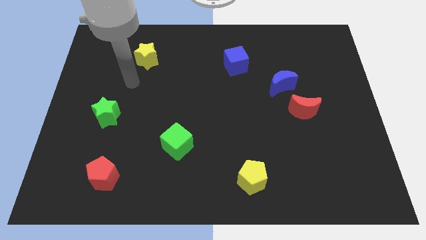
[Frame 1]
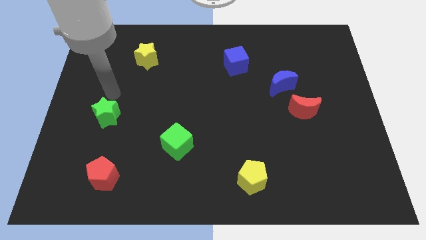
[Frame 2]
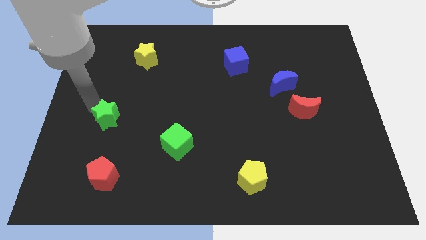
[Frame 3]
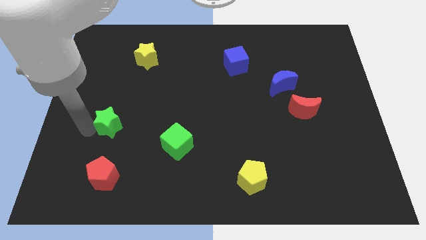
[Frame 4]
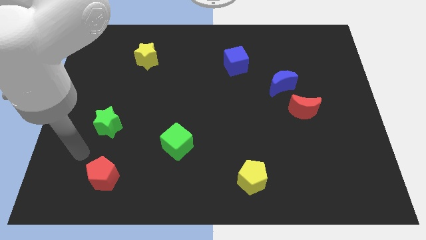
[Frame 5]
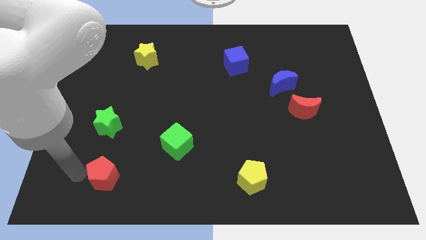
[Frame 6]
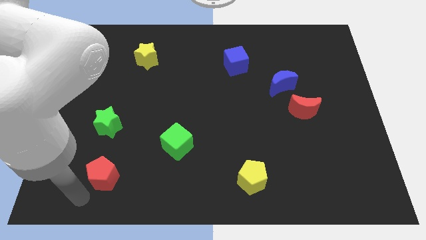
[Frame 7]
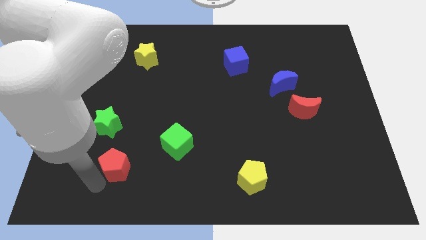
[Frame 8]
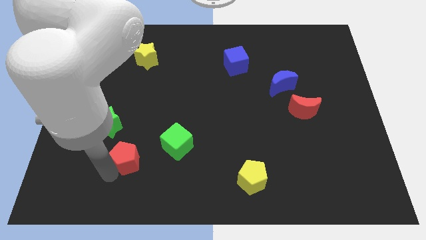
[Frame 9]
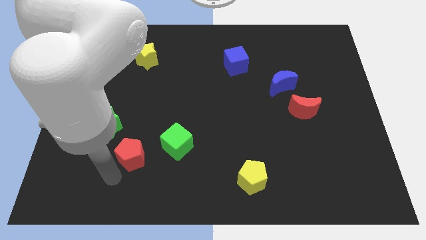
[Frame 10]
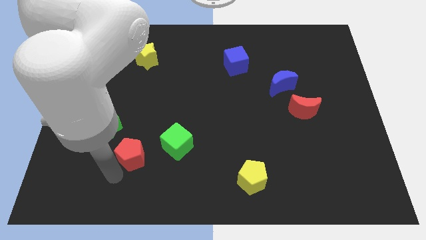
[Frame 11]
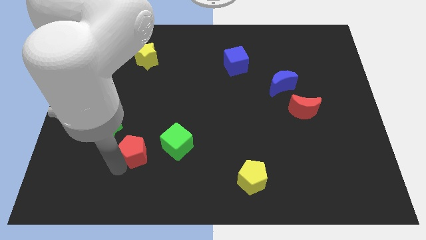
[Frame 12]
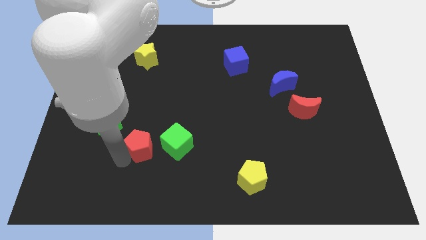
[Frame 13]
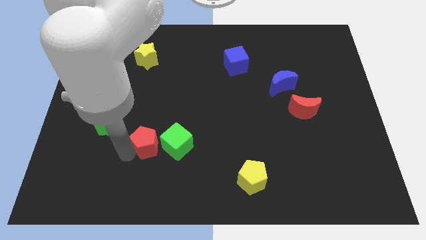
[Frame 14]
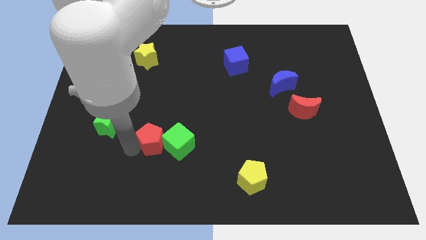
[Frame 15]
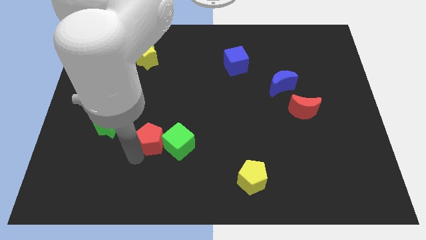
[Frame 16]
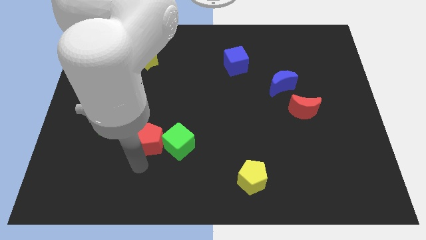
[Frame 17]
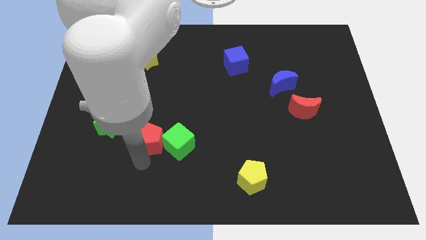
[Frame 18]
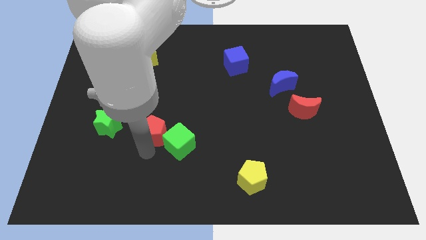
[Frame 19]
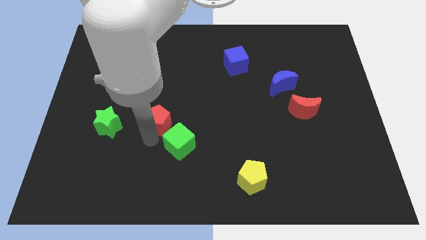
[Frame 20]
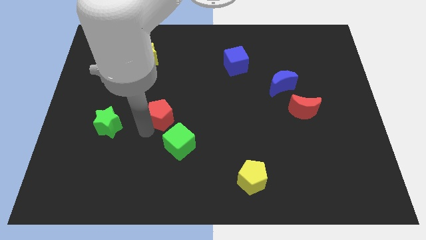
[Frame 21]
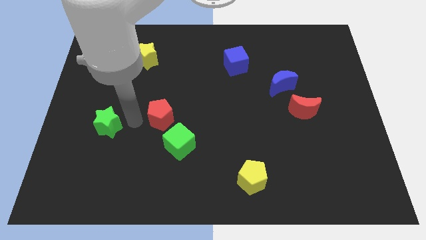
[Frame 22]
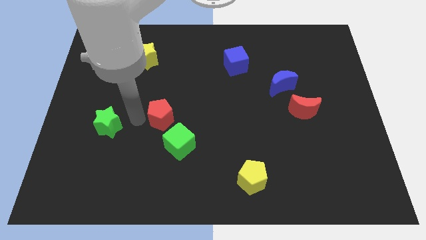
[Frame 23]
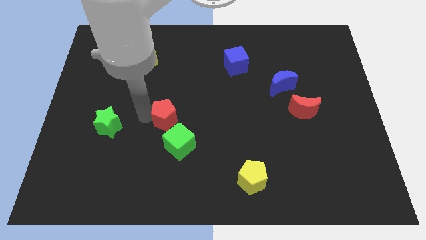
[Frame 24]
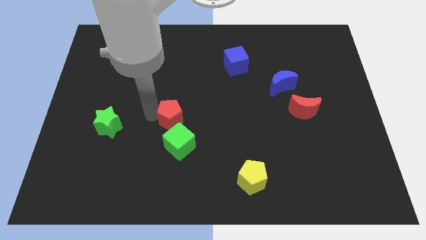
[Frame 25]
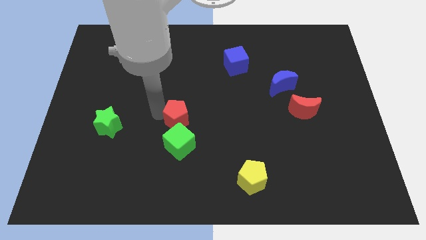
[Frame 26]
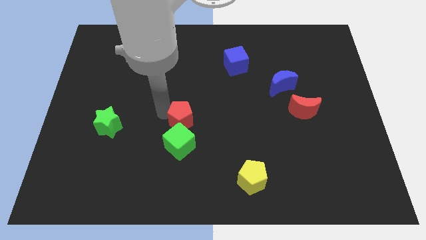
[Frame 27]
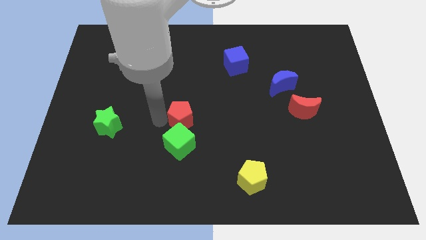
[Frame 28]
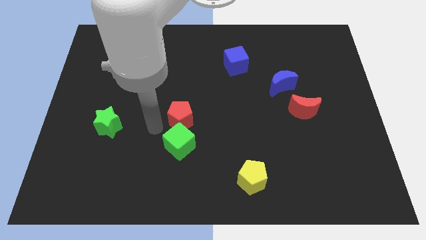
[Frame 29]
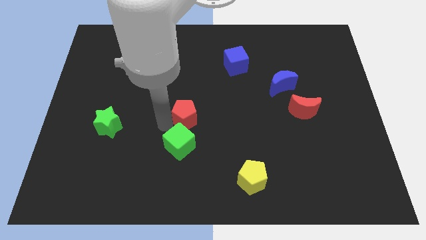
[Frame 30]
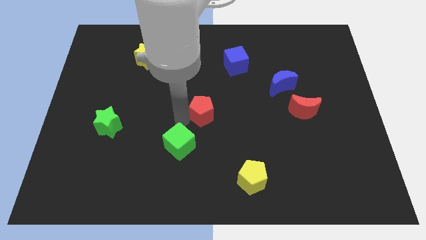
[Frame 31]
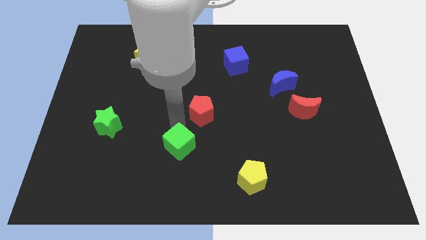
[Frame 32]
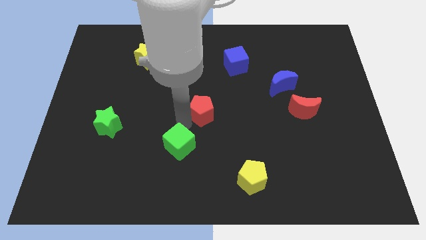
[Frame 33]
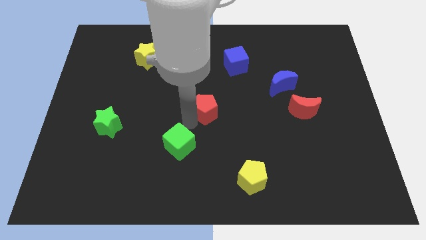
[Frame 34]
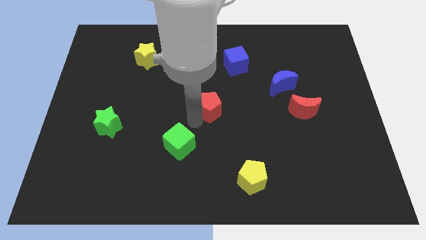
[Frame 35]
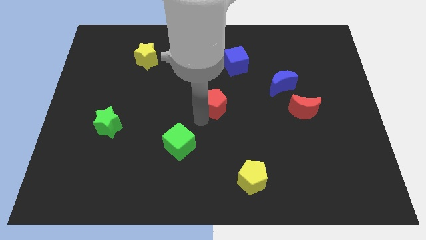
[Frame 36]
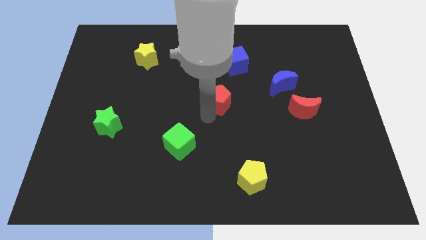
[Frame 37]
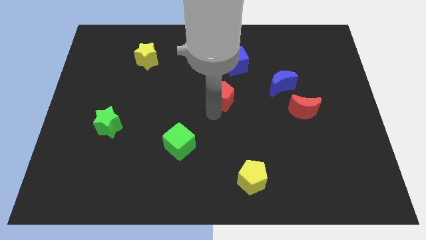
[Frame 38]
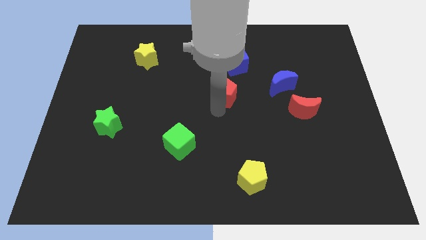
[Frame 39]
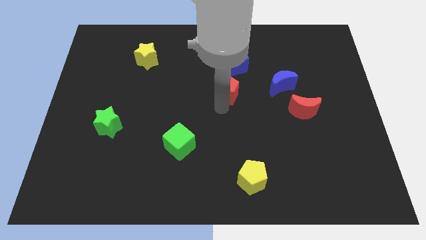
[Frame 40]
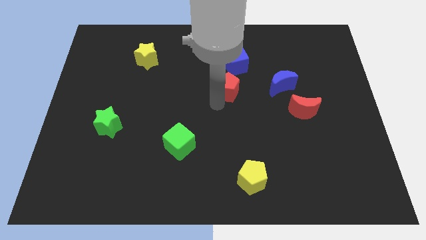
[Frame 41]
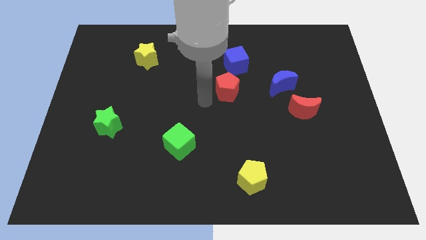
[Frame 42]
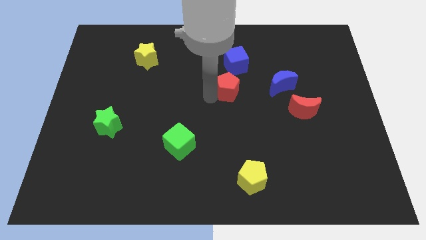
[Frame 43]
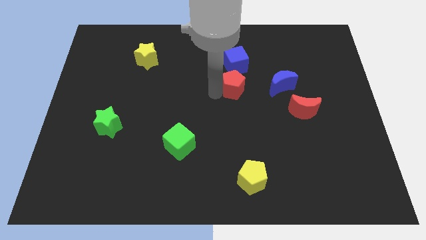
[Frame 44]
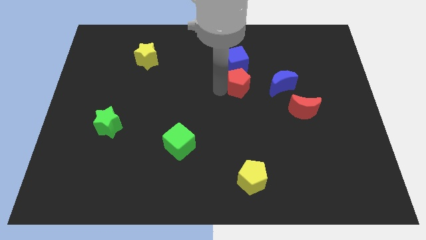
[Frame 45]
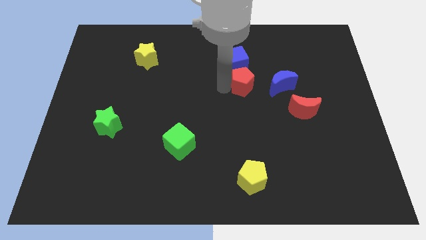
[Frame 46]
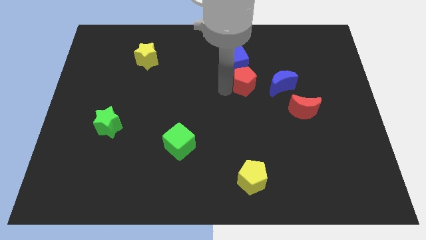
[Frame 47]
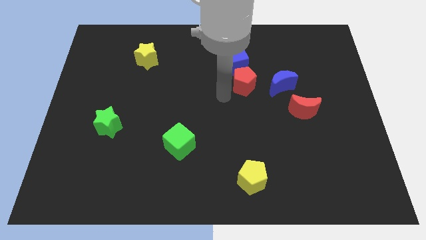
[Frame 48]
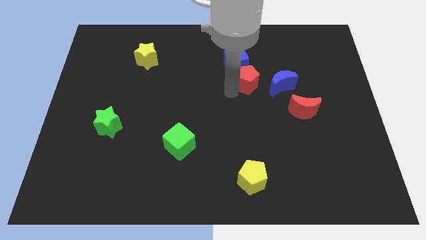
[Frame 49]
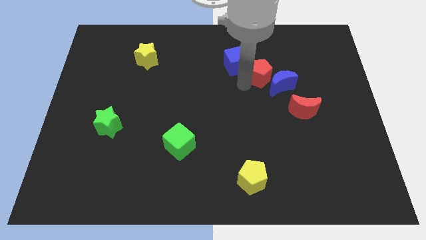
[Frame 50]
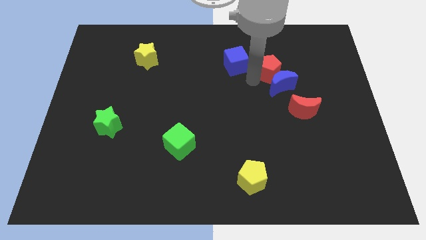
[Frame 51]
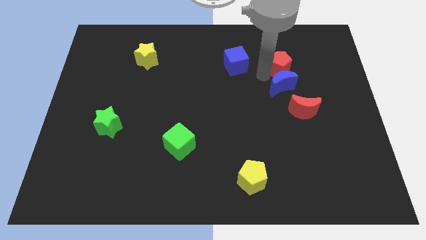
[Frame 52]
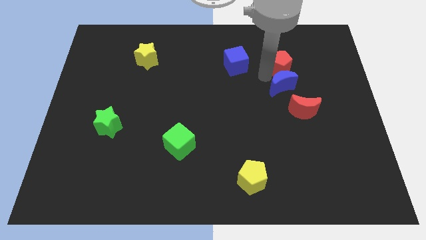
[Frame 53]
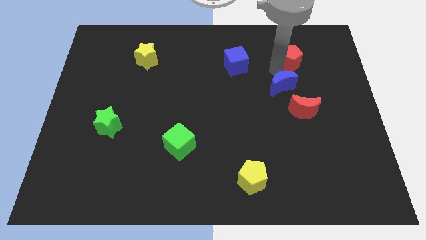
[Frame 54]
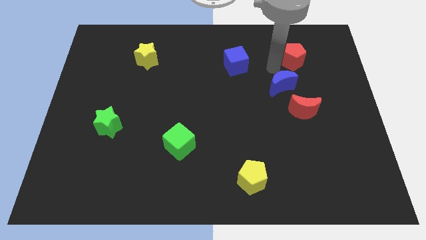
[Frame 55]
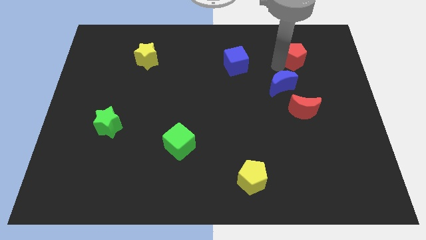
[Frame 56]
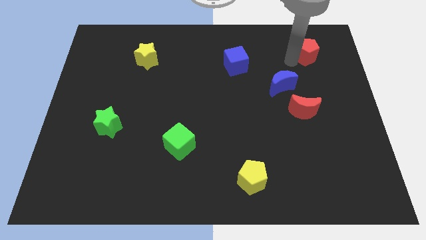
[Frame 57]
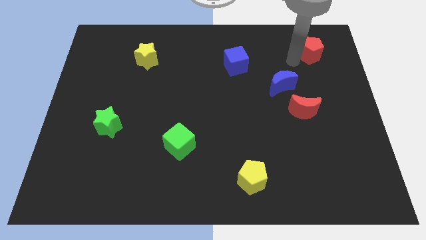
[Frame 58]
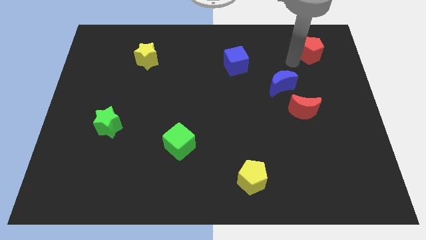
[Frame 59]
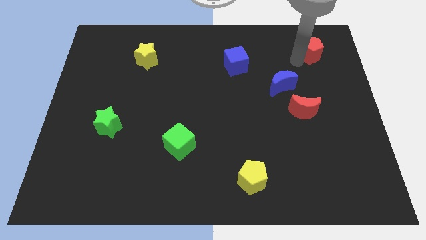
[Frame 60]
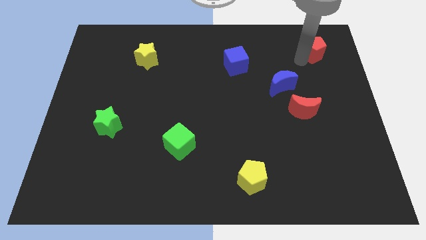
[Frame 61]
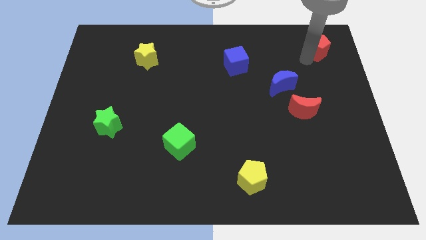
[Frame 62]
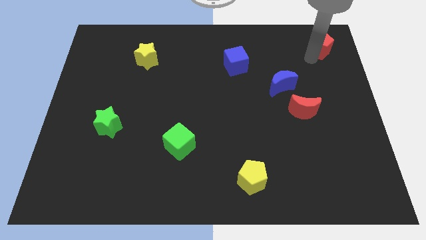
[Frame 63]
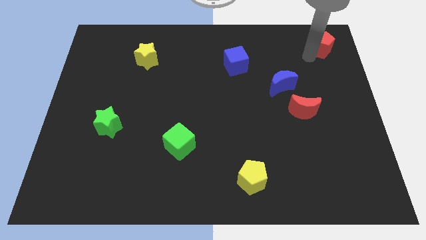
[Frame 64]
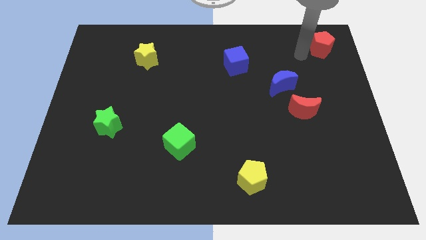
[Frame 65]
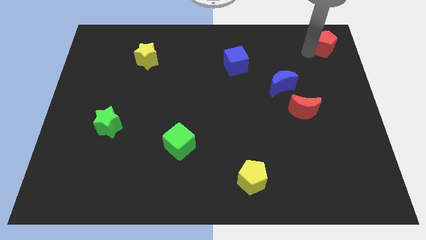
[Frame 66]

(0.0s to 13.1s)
push the red pentagon to the top right corner
